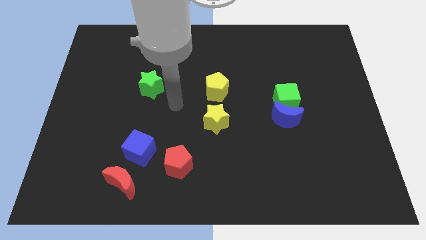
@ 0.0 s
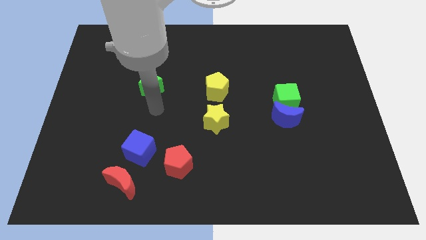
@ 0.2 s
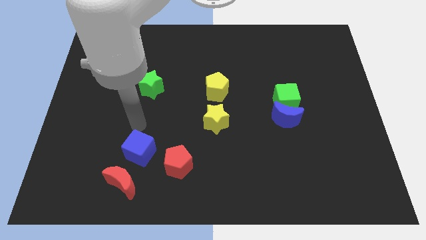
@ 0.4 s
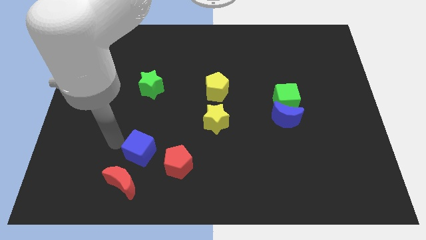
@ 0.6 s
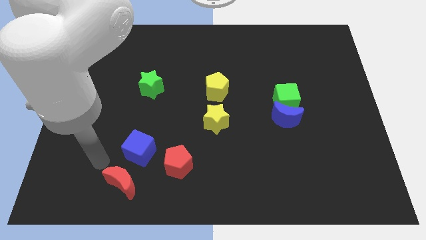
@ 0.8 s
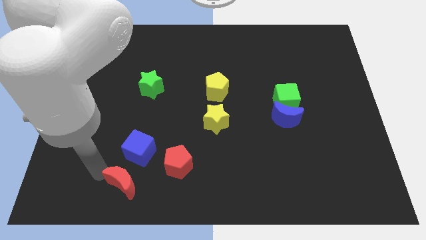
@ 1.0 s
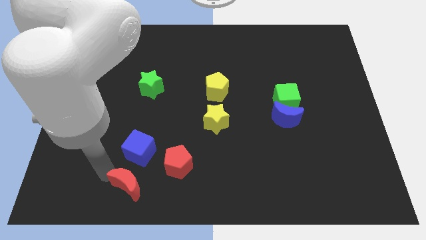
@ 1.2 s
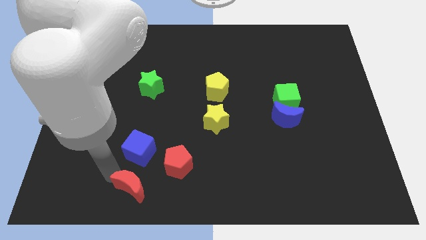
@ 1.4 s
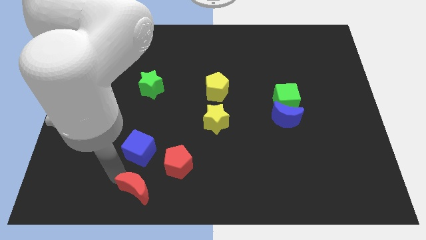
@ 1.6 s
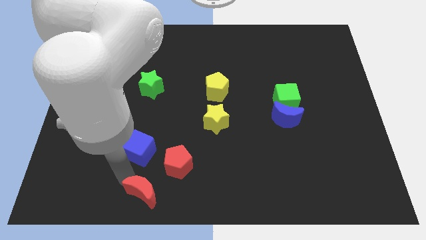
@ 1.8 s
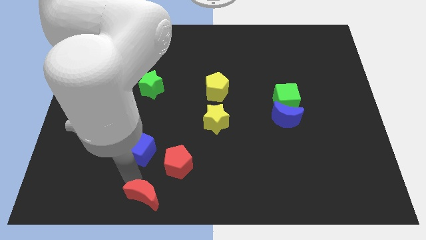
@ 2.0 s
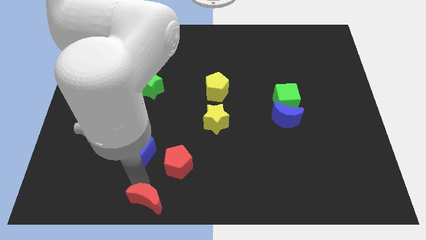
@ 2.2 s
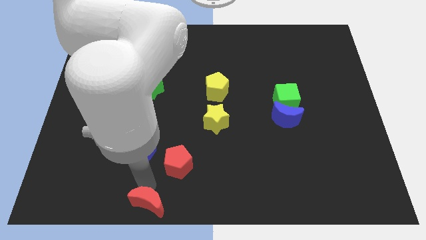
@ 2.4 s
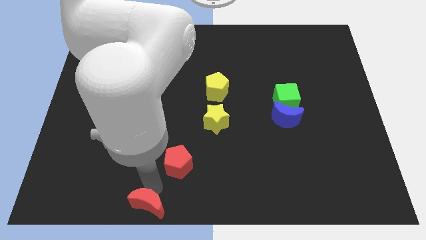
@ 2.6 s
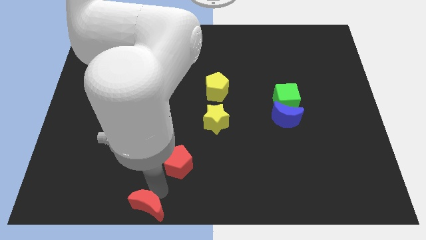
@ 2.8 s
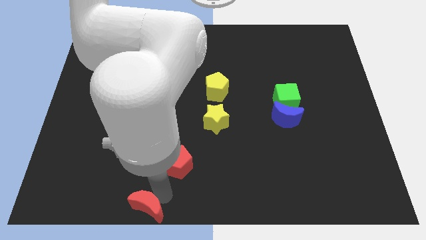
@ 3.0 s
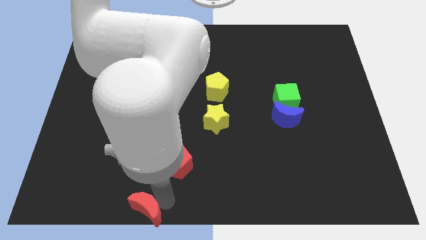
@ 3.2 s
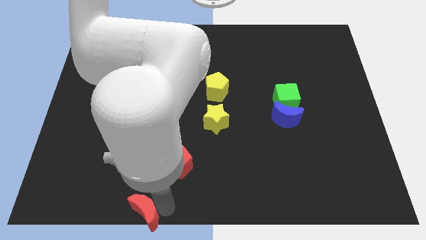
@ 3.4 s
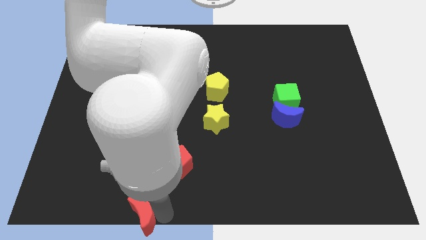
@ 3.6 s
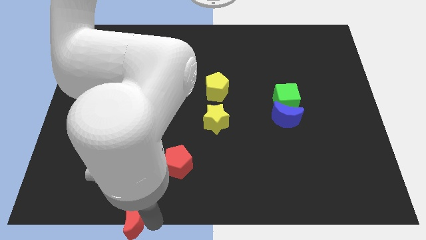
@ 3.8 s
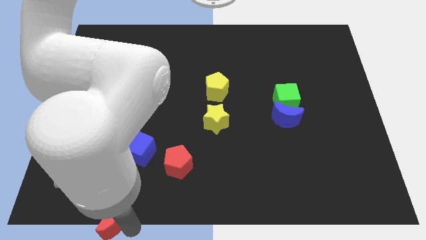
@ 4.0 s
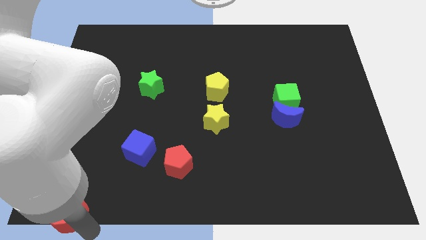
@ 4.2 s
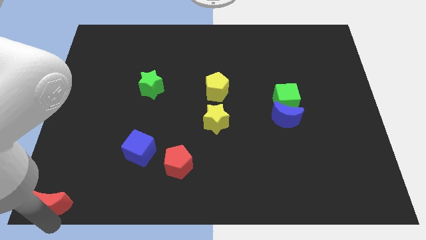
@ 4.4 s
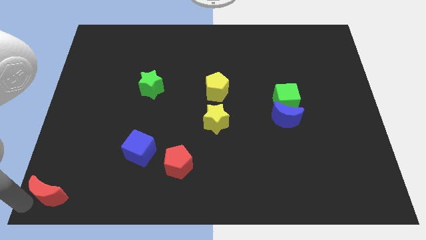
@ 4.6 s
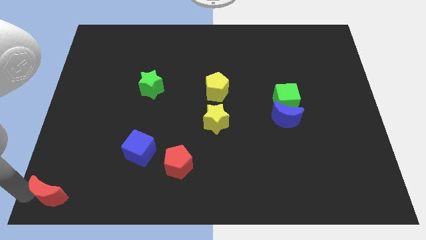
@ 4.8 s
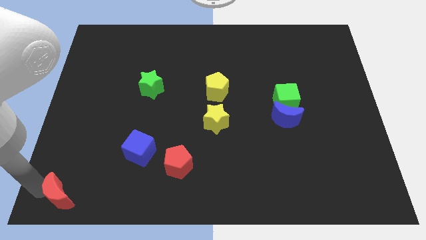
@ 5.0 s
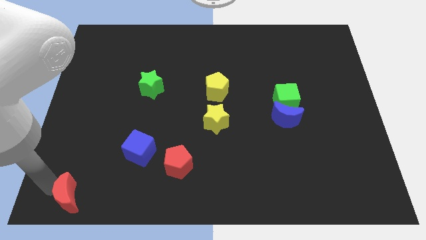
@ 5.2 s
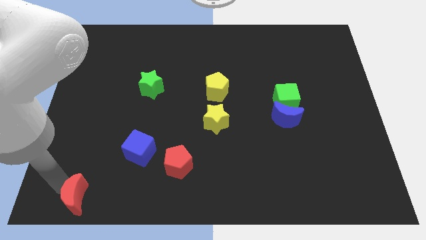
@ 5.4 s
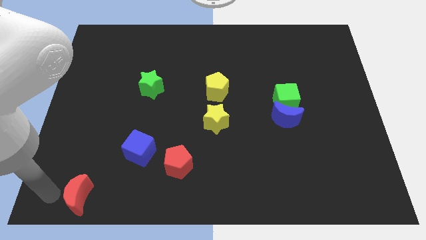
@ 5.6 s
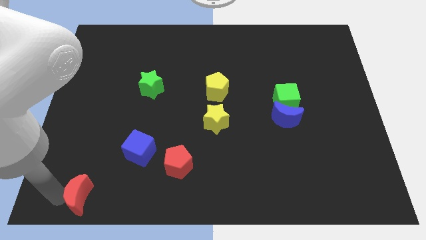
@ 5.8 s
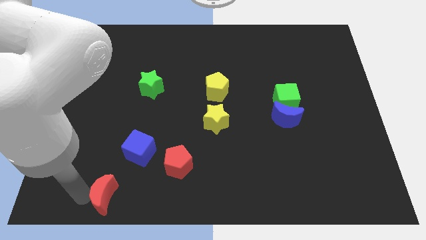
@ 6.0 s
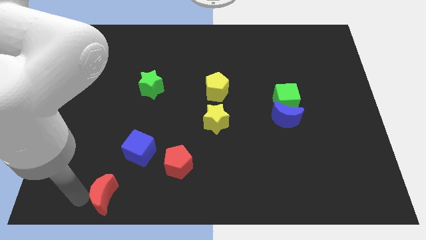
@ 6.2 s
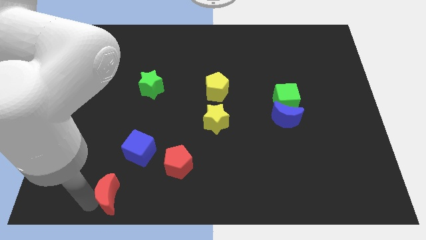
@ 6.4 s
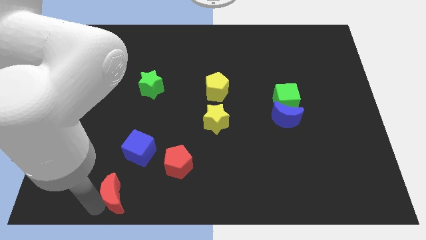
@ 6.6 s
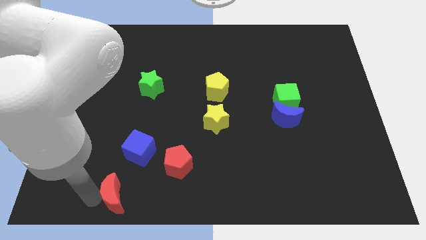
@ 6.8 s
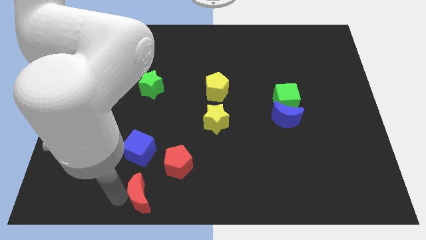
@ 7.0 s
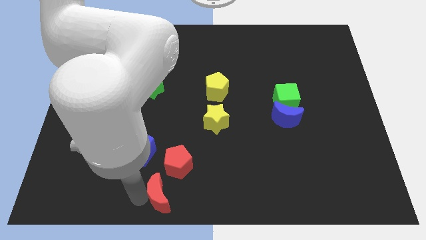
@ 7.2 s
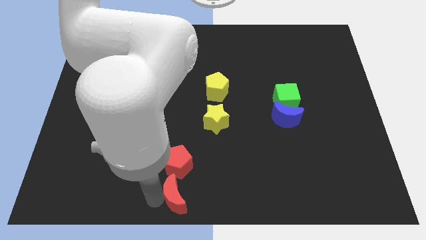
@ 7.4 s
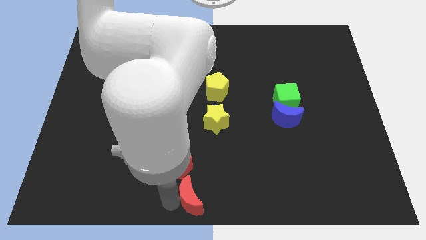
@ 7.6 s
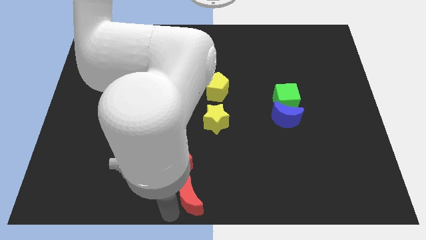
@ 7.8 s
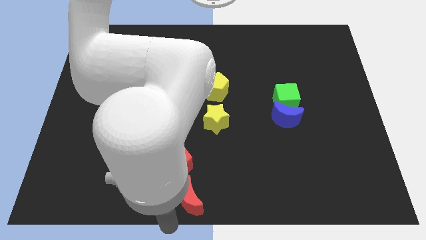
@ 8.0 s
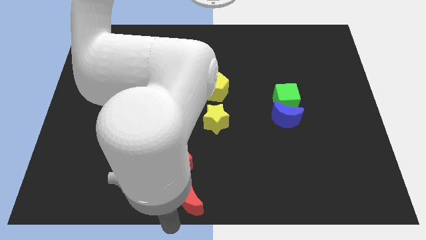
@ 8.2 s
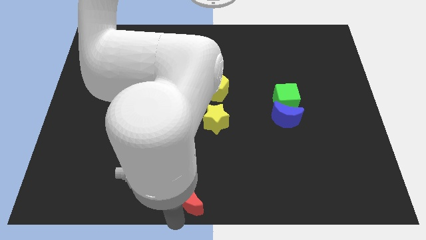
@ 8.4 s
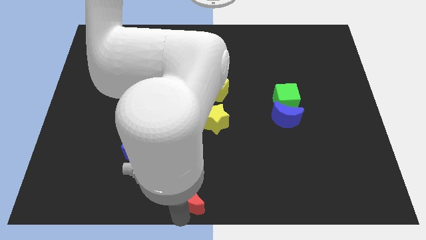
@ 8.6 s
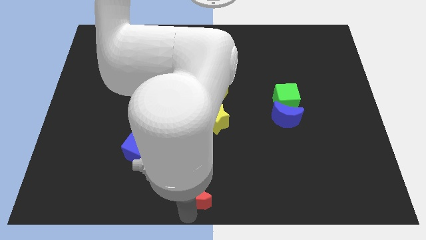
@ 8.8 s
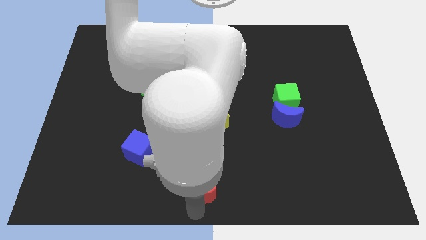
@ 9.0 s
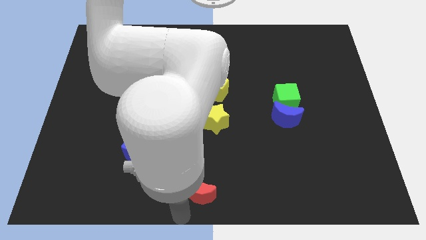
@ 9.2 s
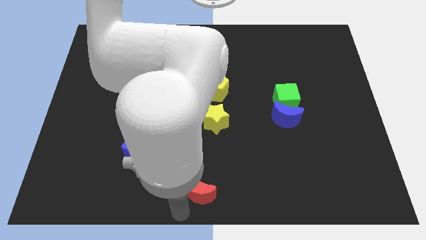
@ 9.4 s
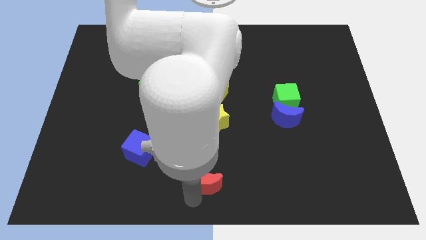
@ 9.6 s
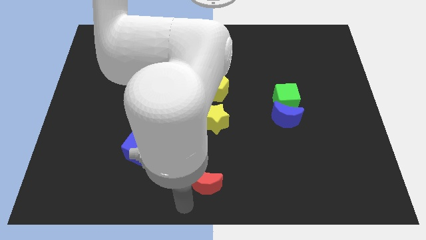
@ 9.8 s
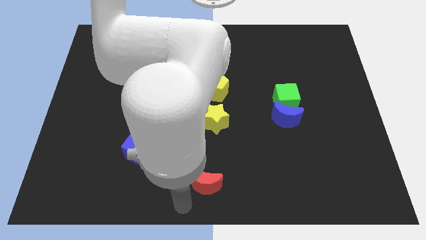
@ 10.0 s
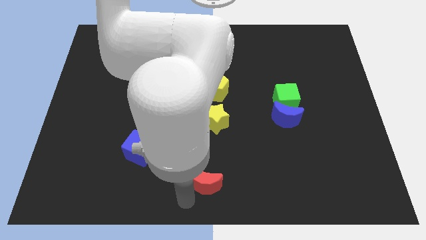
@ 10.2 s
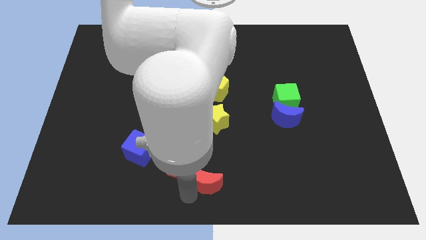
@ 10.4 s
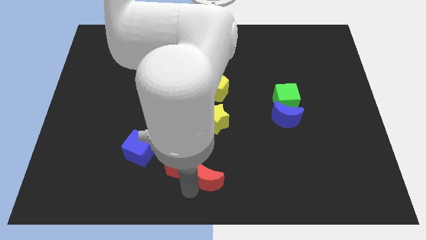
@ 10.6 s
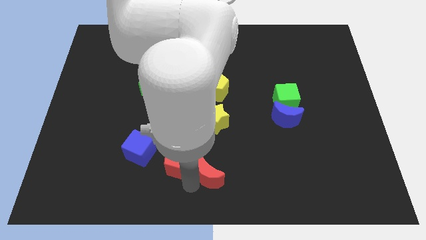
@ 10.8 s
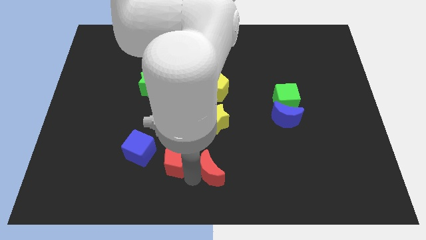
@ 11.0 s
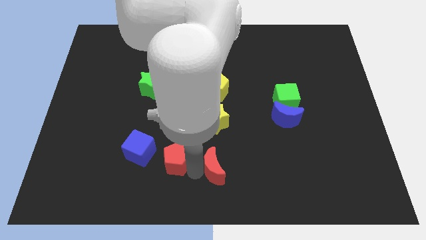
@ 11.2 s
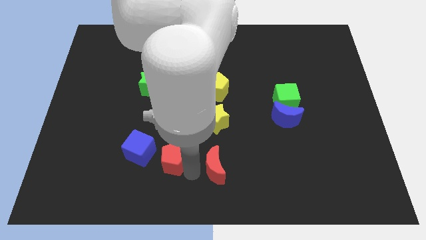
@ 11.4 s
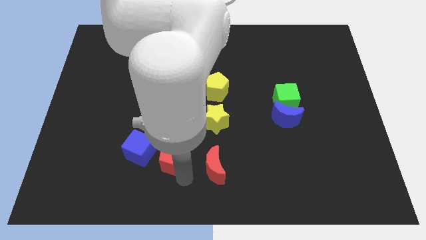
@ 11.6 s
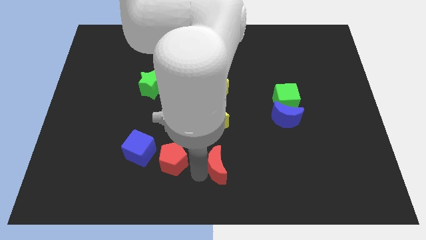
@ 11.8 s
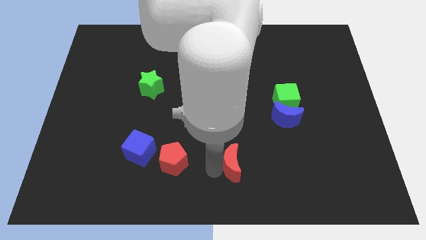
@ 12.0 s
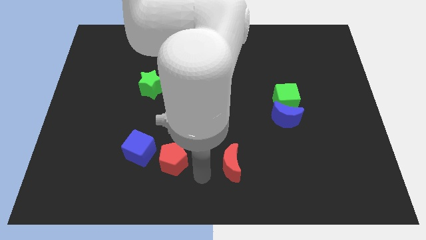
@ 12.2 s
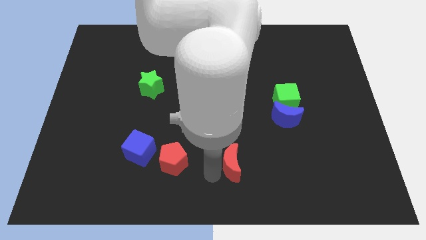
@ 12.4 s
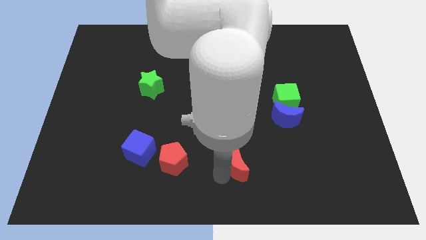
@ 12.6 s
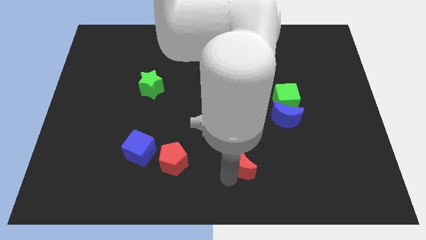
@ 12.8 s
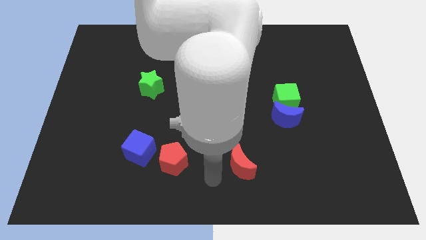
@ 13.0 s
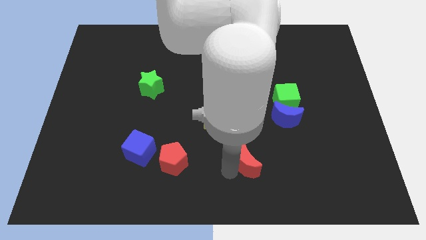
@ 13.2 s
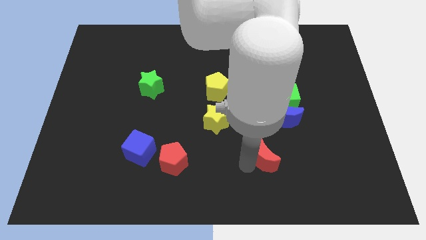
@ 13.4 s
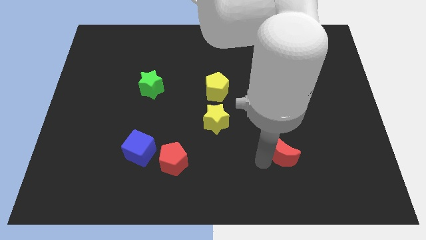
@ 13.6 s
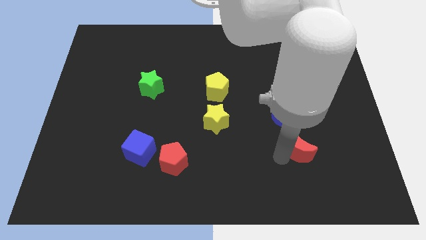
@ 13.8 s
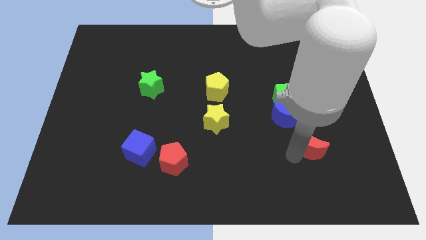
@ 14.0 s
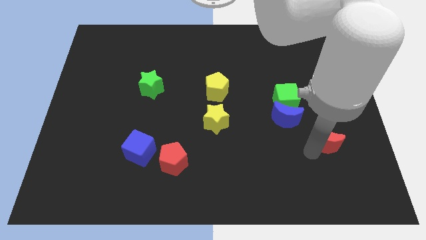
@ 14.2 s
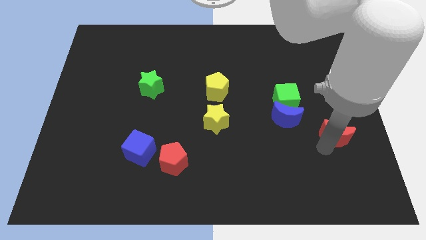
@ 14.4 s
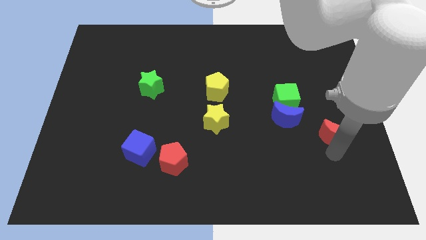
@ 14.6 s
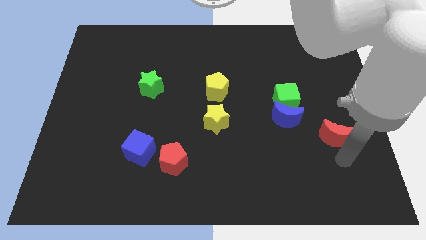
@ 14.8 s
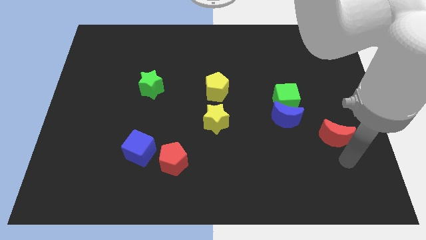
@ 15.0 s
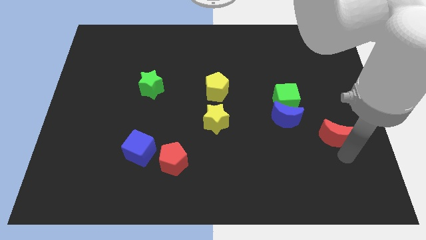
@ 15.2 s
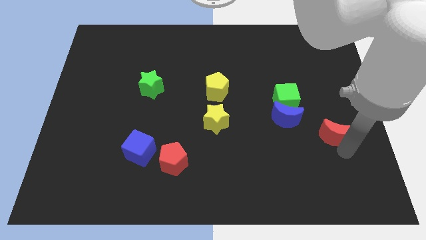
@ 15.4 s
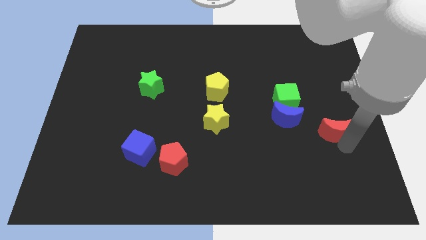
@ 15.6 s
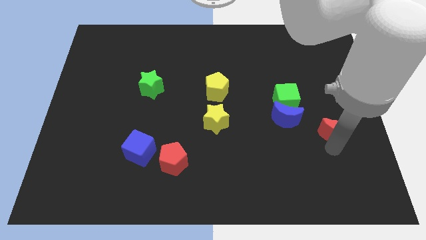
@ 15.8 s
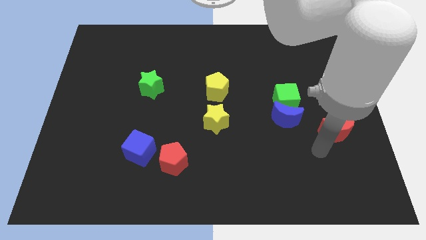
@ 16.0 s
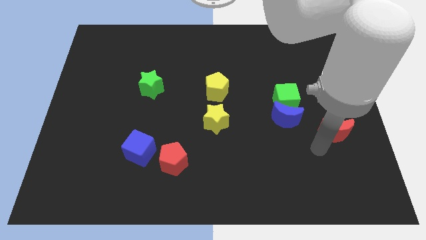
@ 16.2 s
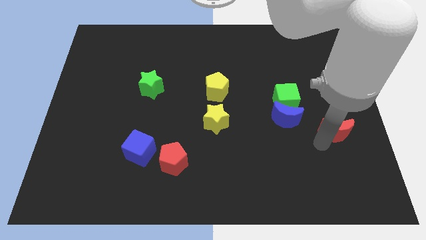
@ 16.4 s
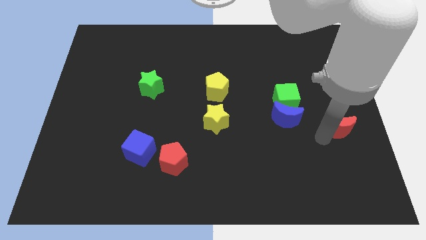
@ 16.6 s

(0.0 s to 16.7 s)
move the red moon to the right side of the board
